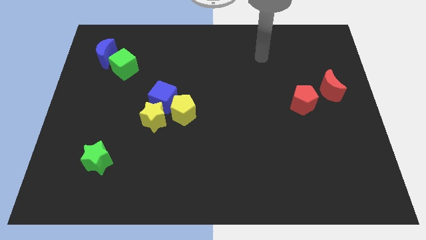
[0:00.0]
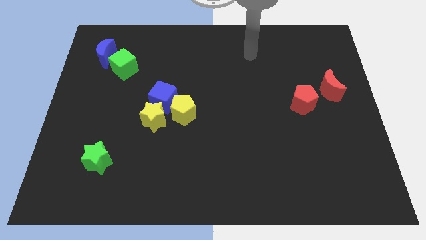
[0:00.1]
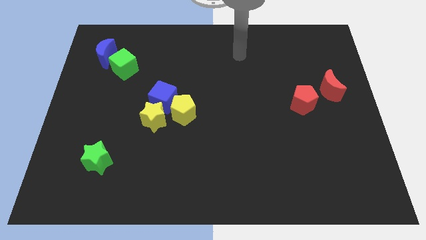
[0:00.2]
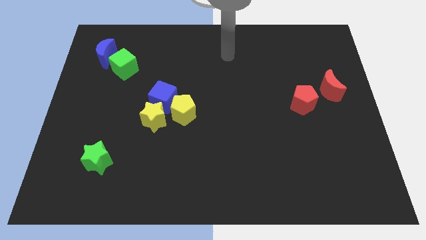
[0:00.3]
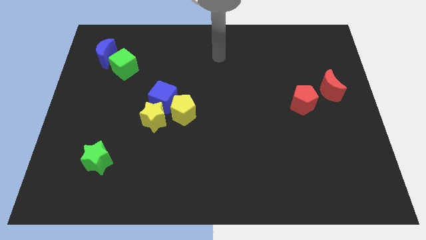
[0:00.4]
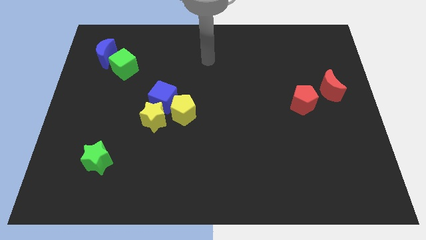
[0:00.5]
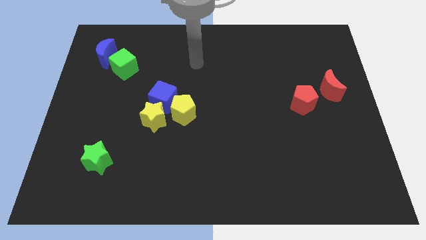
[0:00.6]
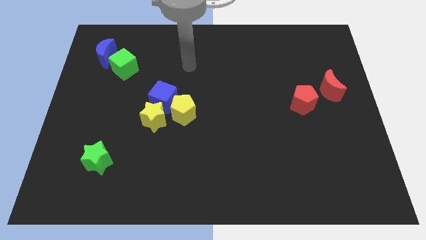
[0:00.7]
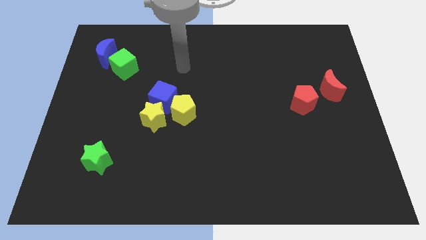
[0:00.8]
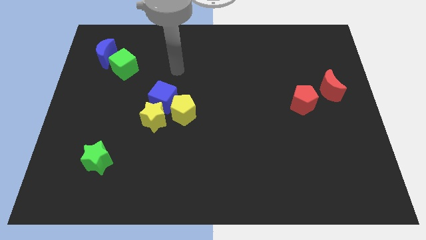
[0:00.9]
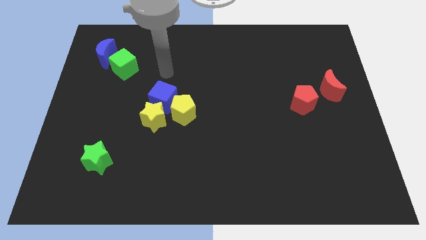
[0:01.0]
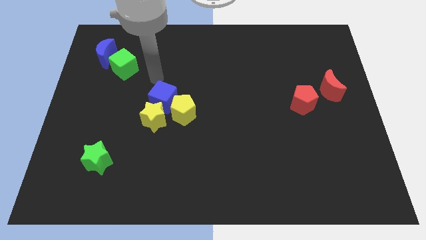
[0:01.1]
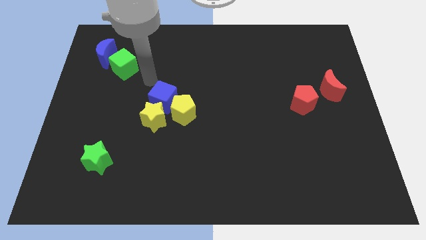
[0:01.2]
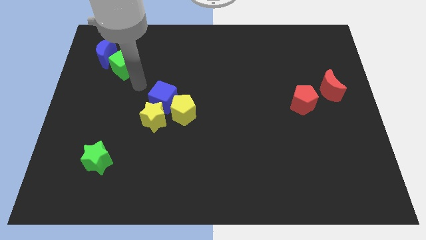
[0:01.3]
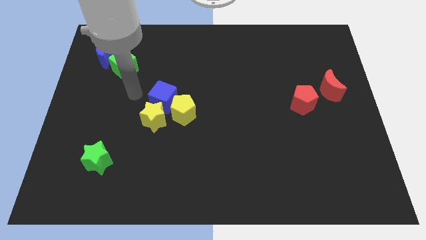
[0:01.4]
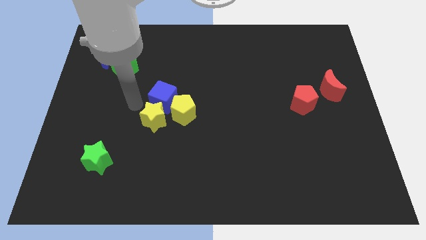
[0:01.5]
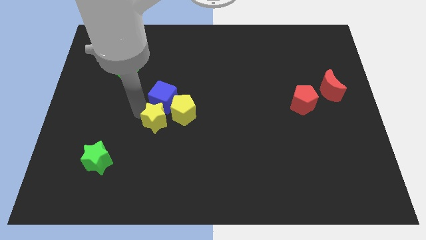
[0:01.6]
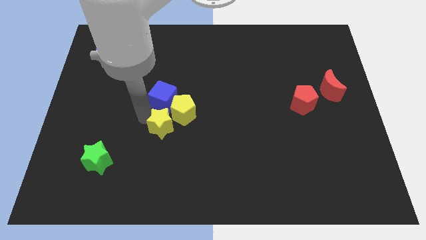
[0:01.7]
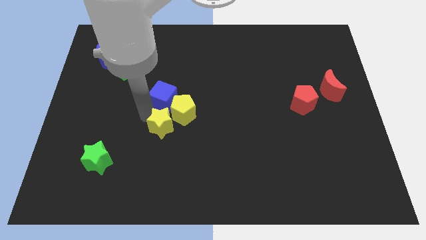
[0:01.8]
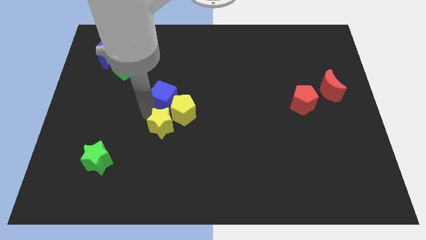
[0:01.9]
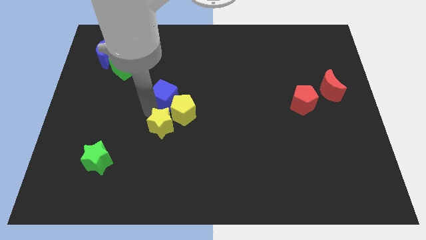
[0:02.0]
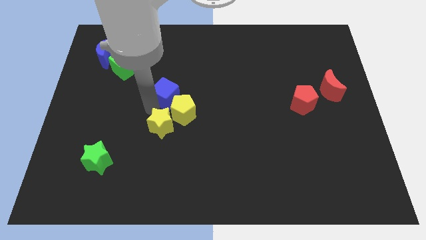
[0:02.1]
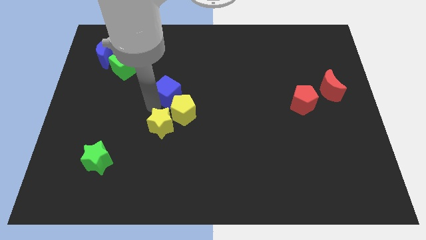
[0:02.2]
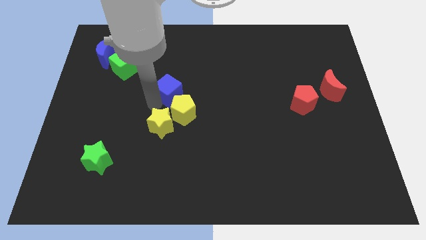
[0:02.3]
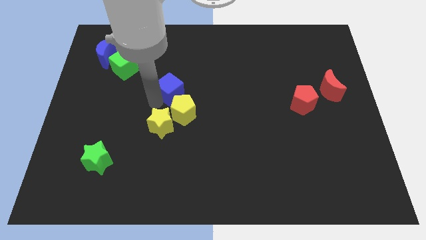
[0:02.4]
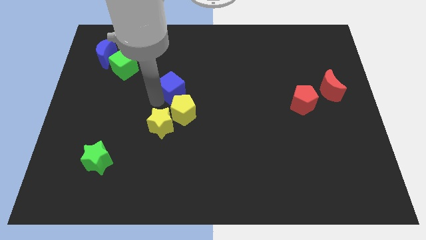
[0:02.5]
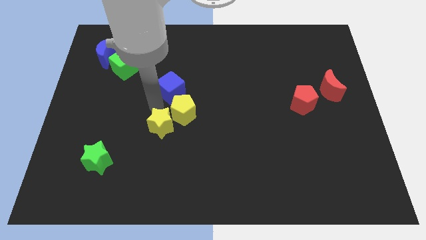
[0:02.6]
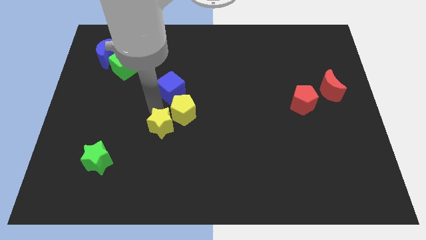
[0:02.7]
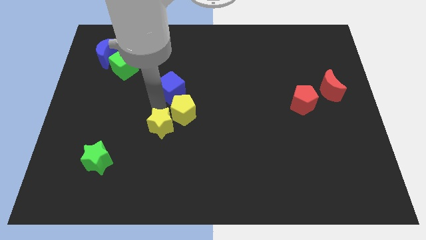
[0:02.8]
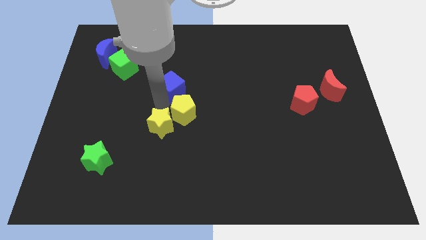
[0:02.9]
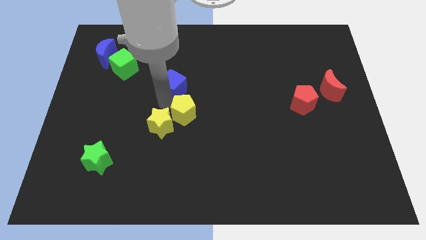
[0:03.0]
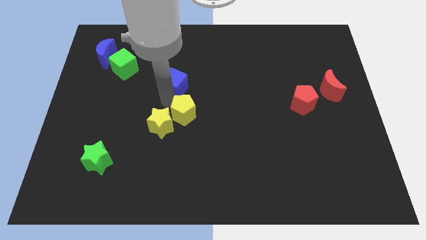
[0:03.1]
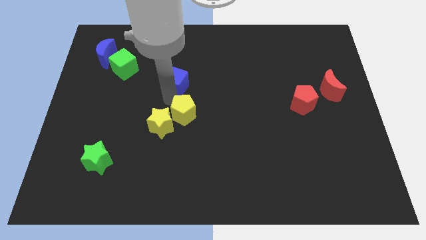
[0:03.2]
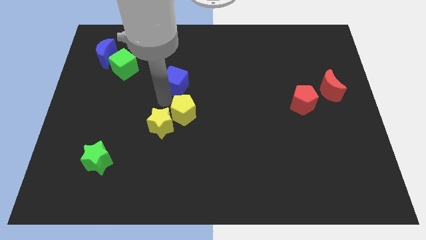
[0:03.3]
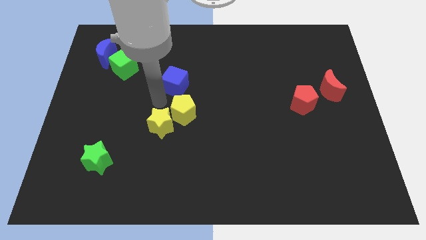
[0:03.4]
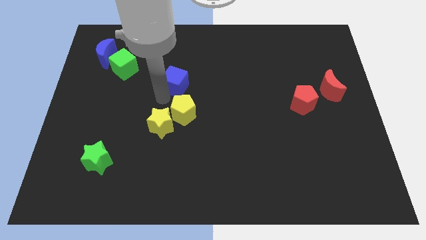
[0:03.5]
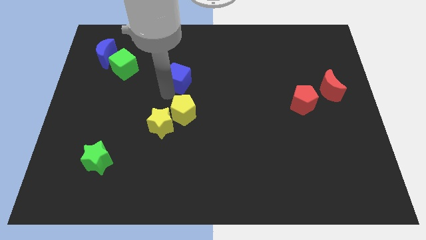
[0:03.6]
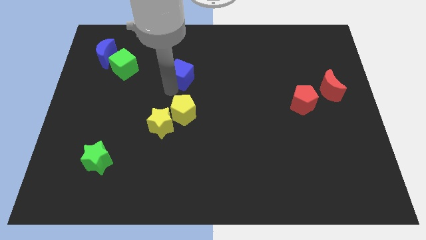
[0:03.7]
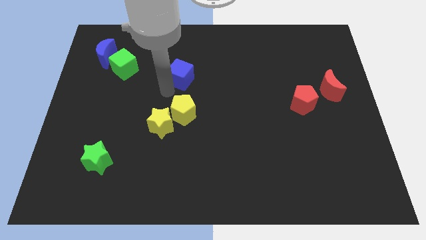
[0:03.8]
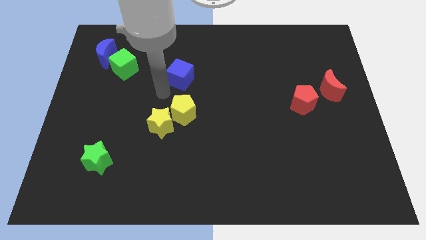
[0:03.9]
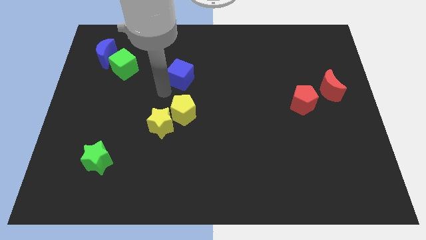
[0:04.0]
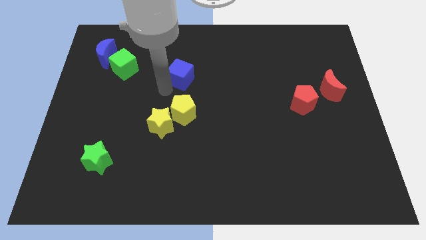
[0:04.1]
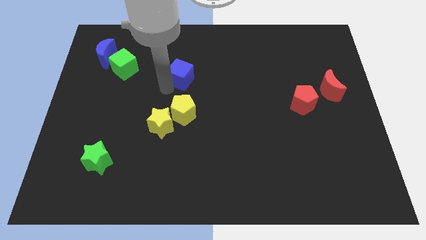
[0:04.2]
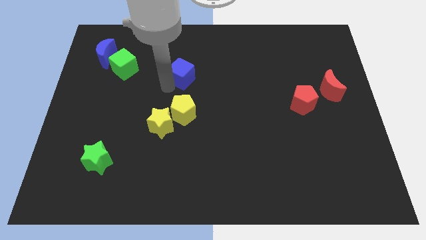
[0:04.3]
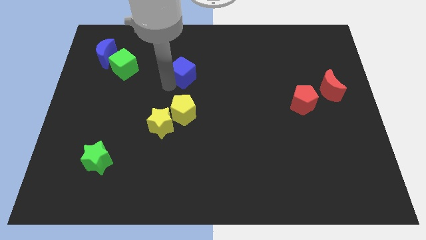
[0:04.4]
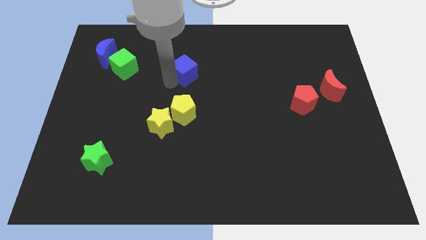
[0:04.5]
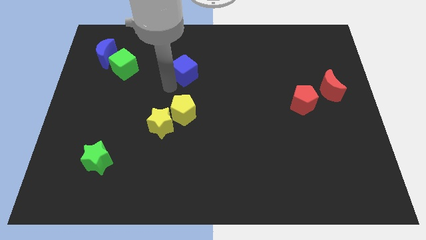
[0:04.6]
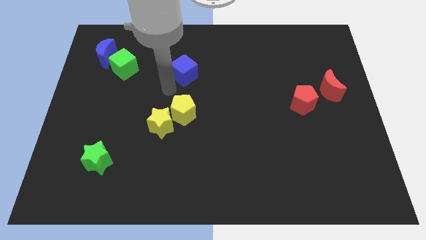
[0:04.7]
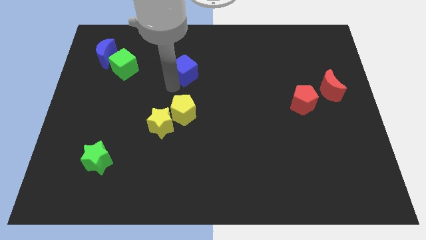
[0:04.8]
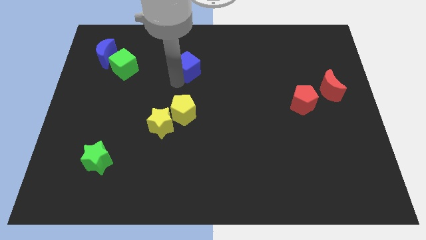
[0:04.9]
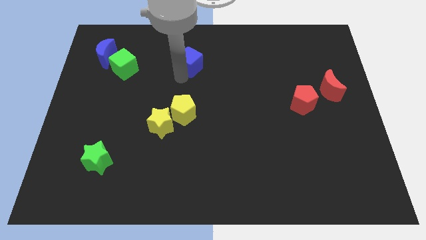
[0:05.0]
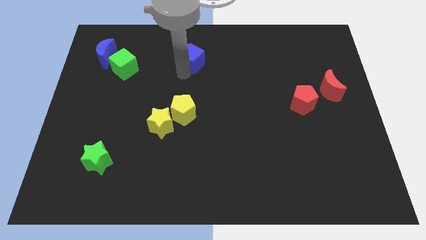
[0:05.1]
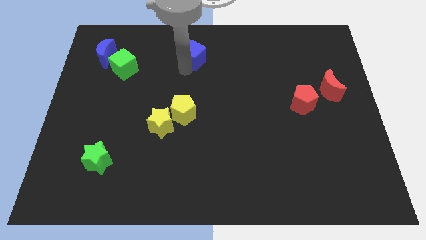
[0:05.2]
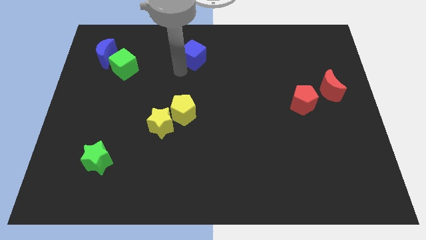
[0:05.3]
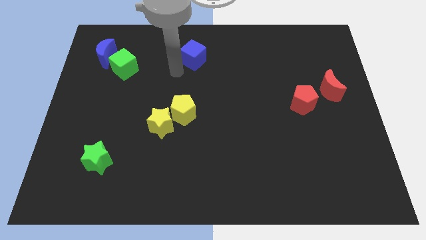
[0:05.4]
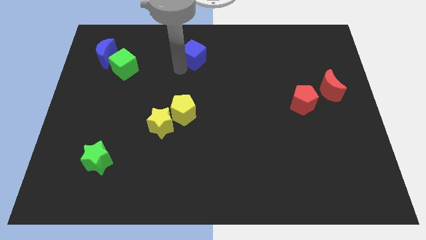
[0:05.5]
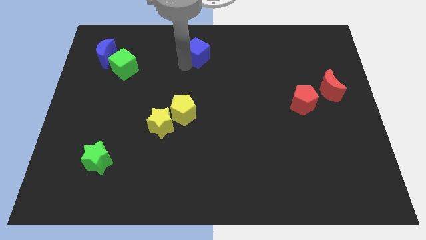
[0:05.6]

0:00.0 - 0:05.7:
push the blue cube to the towards your base

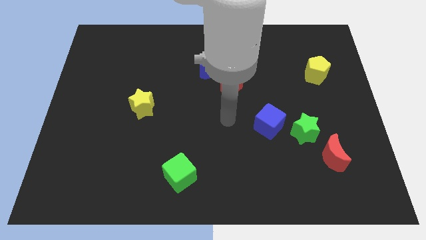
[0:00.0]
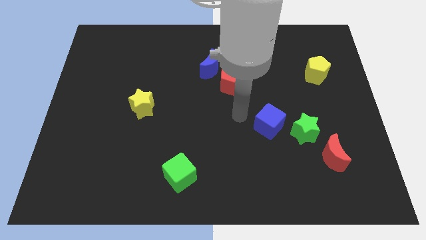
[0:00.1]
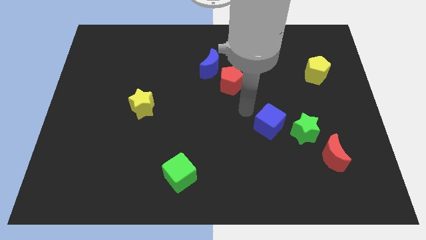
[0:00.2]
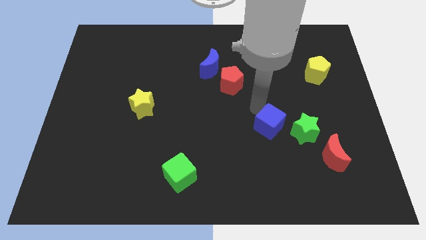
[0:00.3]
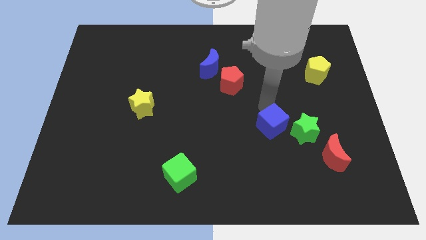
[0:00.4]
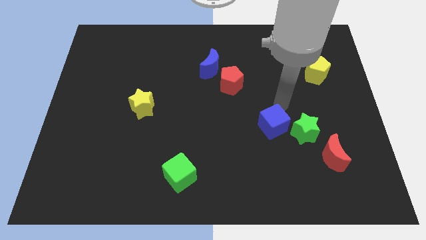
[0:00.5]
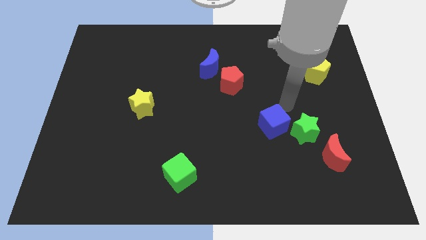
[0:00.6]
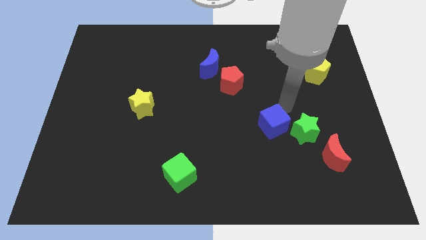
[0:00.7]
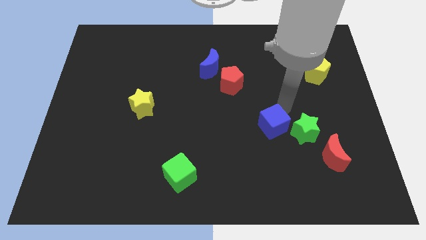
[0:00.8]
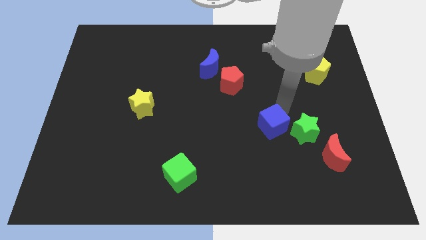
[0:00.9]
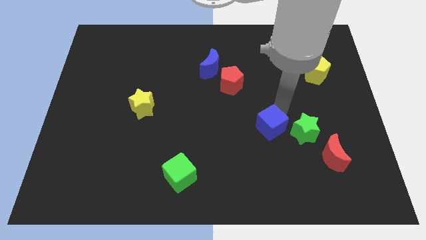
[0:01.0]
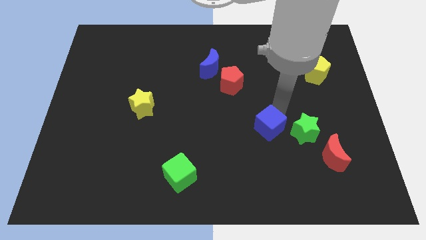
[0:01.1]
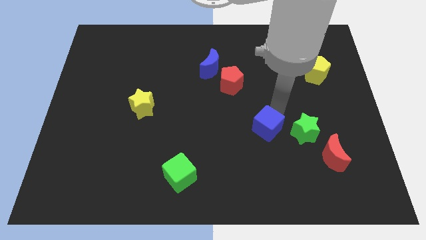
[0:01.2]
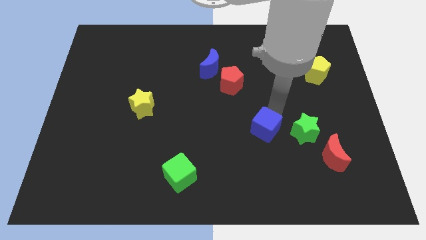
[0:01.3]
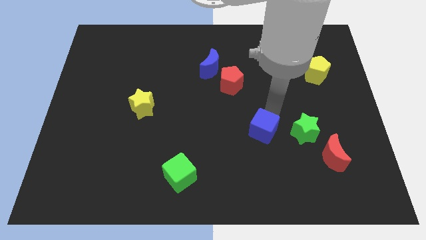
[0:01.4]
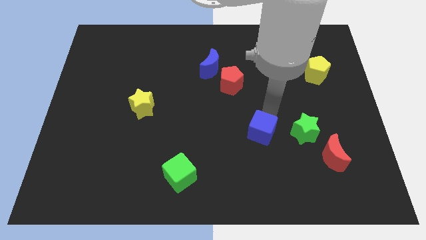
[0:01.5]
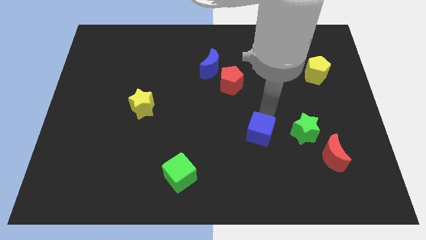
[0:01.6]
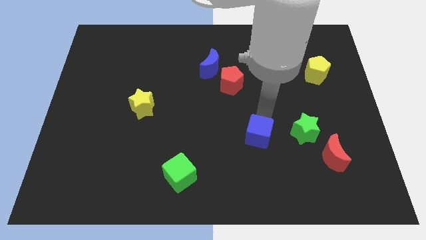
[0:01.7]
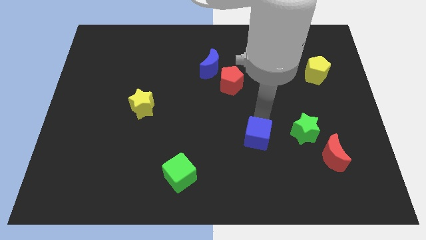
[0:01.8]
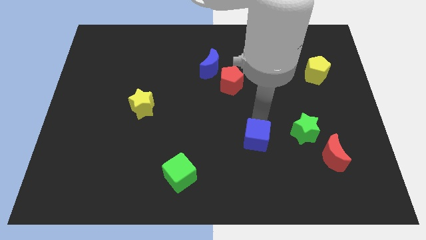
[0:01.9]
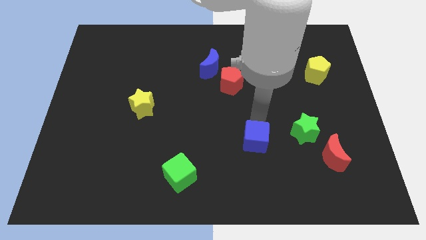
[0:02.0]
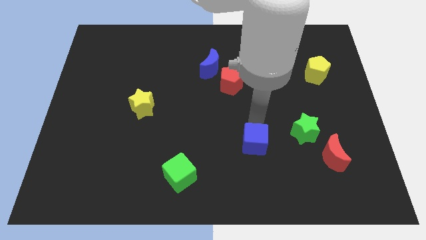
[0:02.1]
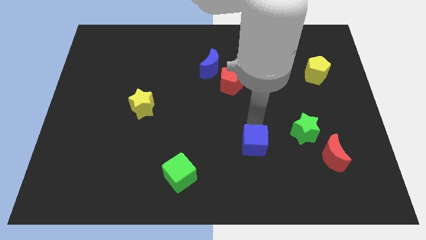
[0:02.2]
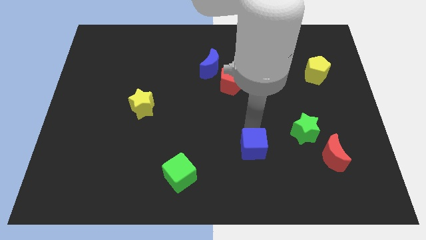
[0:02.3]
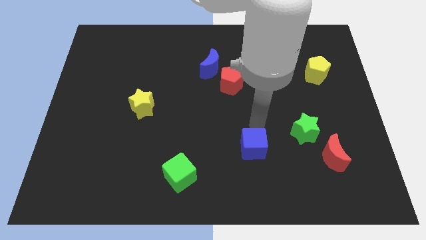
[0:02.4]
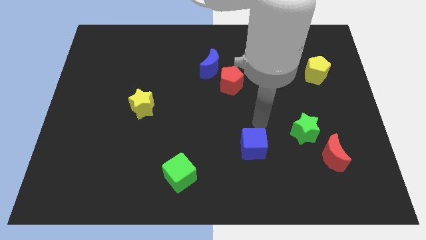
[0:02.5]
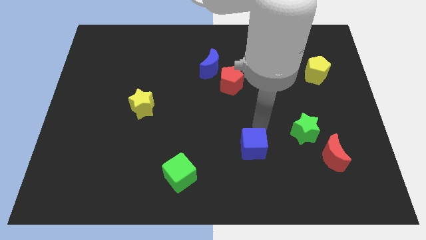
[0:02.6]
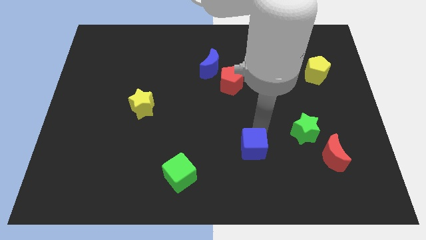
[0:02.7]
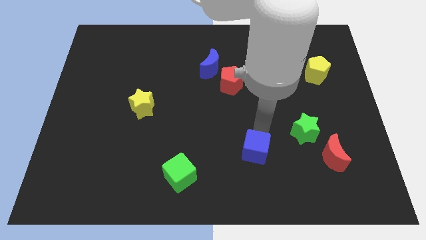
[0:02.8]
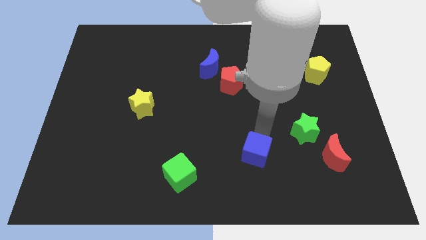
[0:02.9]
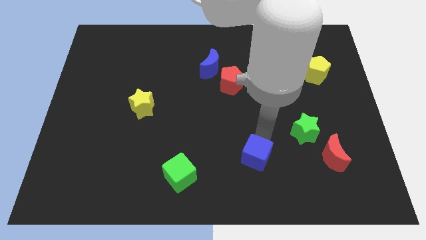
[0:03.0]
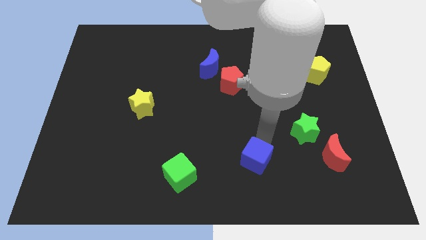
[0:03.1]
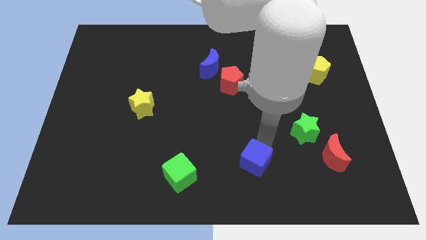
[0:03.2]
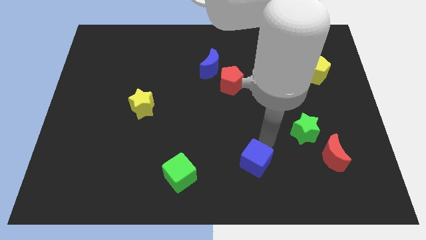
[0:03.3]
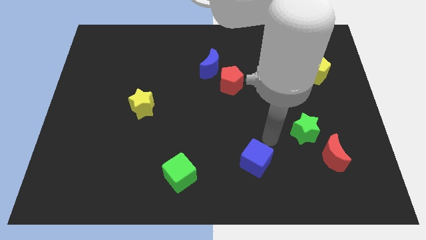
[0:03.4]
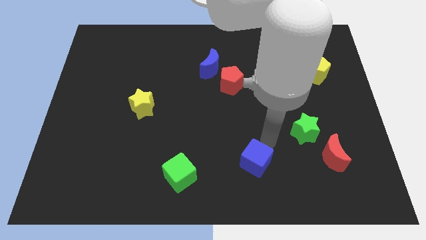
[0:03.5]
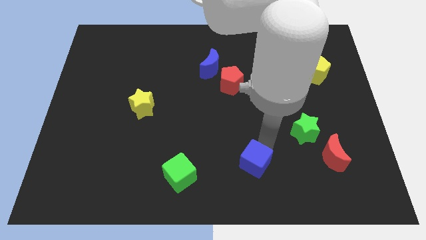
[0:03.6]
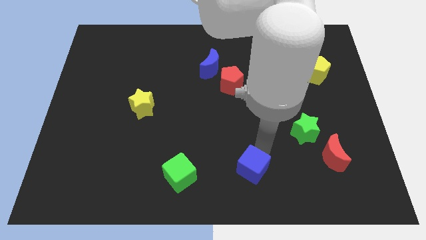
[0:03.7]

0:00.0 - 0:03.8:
put the blue cube to the bottom
